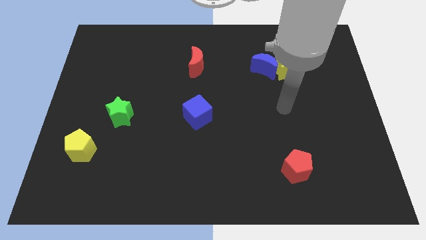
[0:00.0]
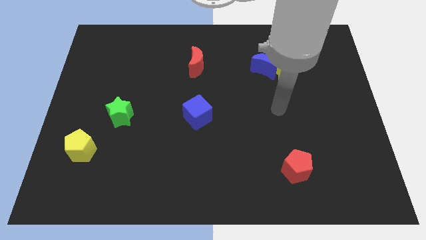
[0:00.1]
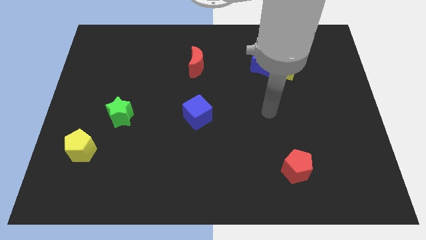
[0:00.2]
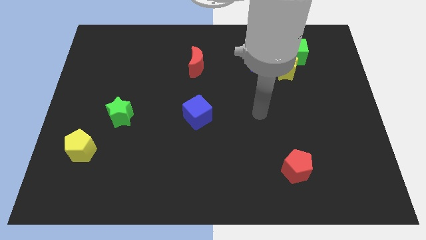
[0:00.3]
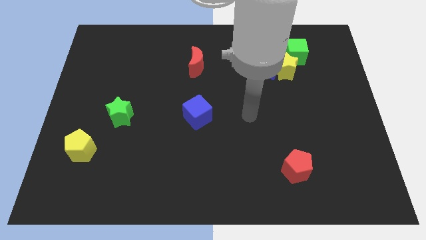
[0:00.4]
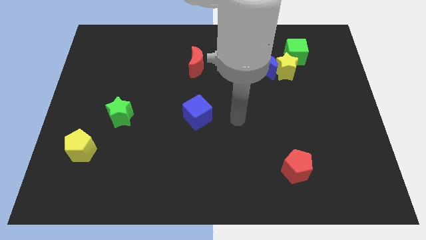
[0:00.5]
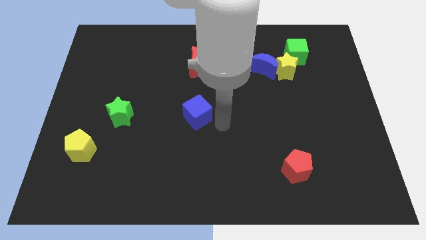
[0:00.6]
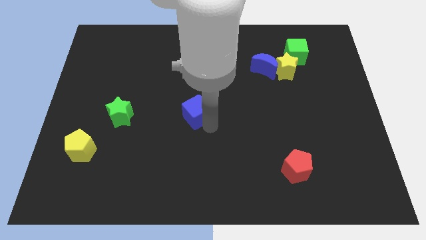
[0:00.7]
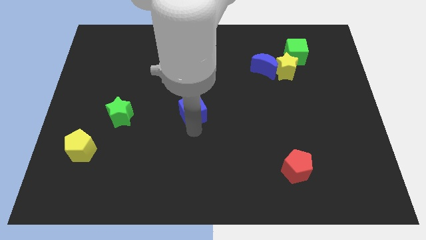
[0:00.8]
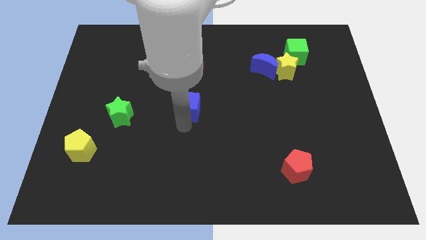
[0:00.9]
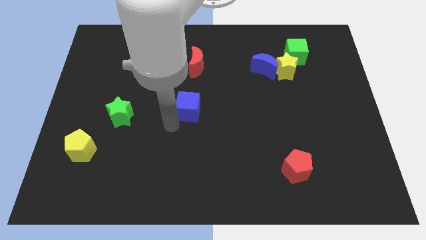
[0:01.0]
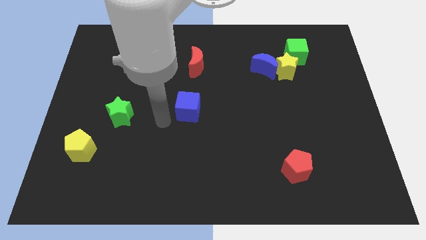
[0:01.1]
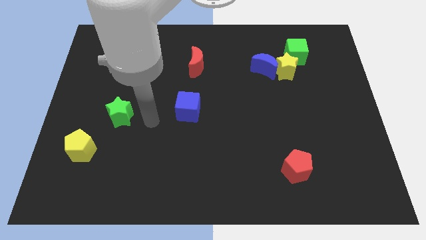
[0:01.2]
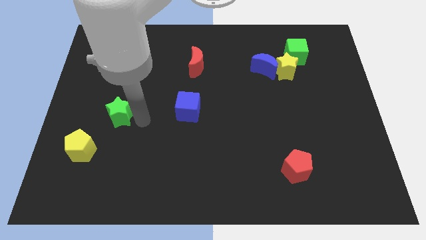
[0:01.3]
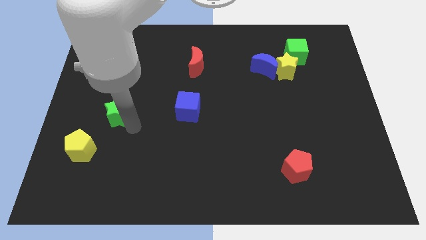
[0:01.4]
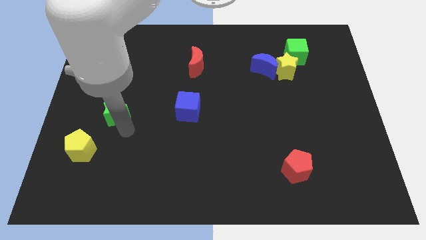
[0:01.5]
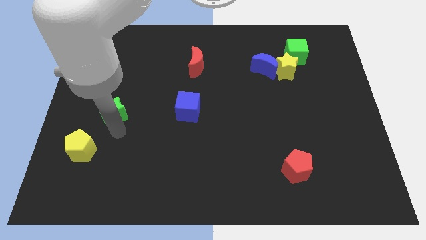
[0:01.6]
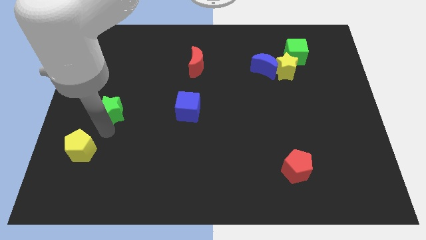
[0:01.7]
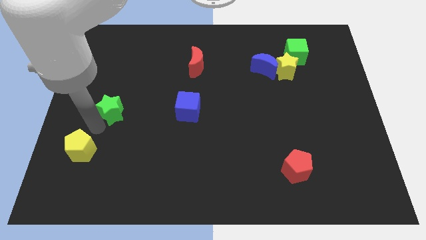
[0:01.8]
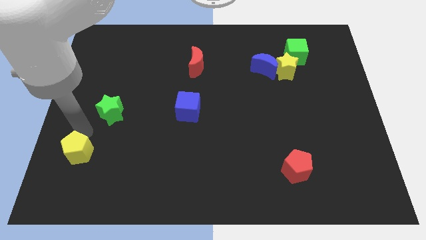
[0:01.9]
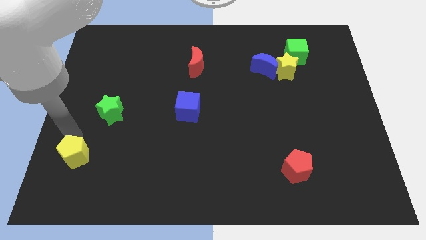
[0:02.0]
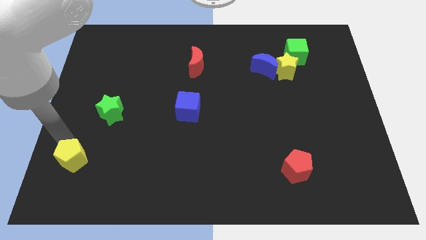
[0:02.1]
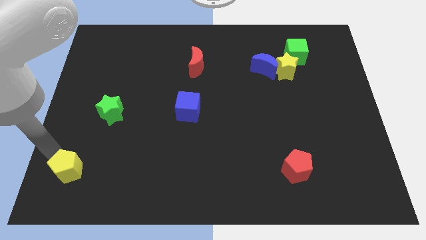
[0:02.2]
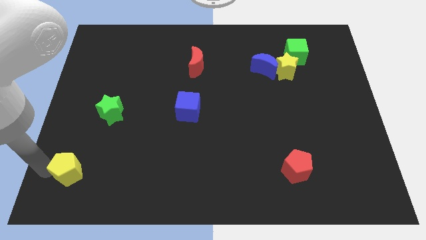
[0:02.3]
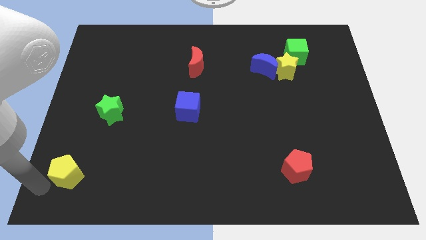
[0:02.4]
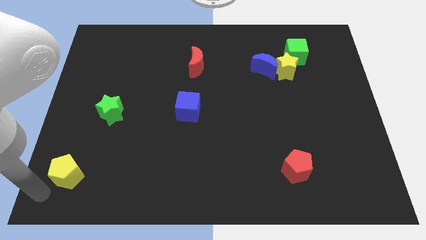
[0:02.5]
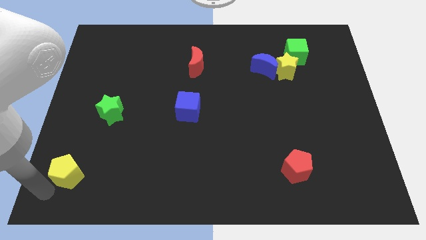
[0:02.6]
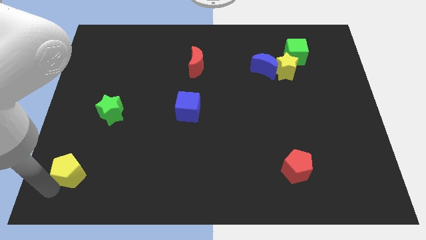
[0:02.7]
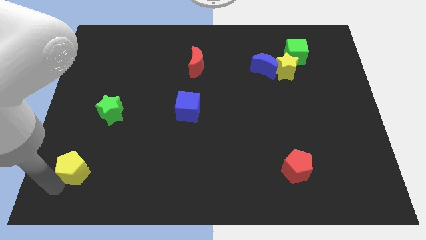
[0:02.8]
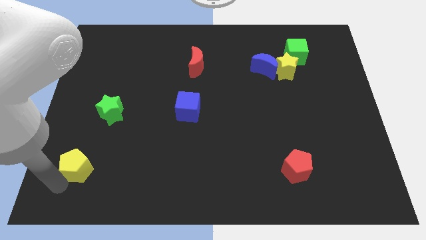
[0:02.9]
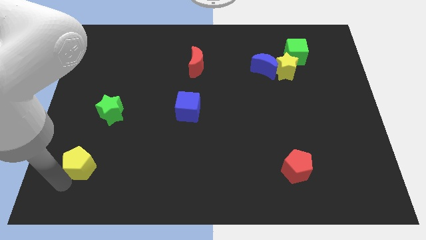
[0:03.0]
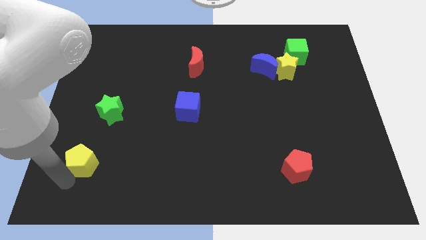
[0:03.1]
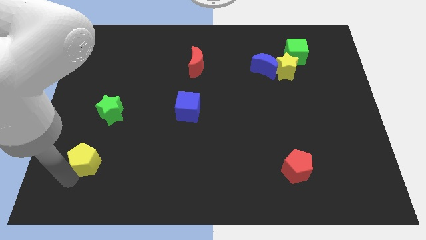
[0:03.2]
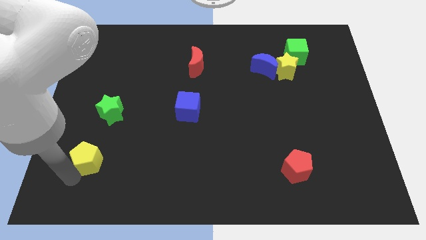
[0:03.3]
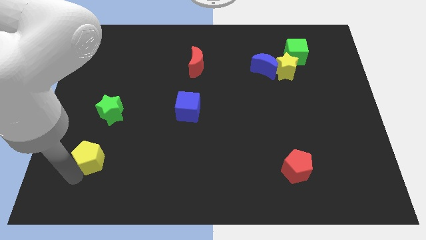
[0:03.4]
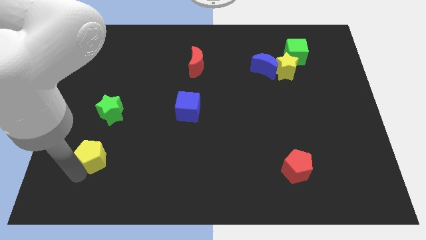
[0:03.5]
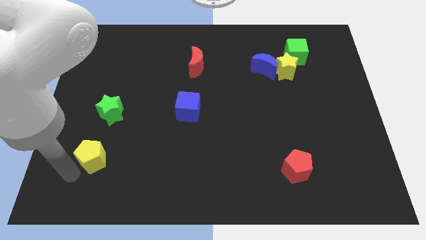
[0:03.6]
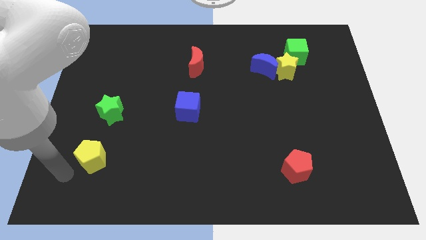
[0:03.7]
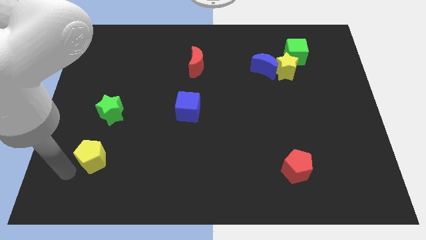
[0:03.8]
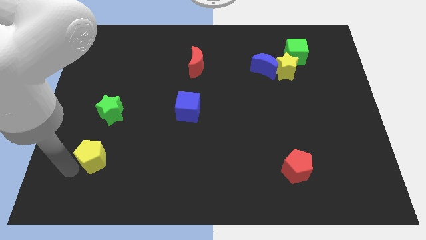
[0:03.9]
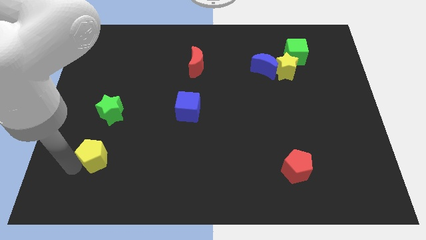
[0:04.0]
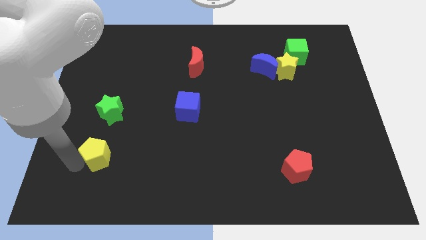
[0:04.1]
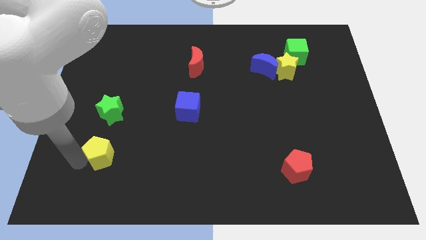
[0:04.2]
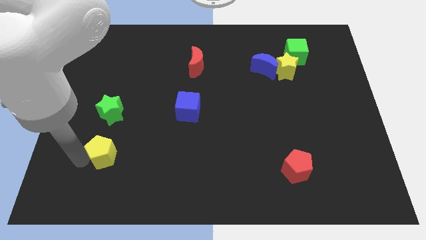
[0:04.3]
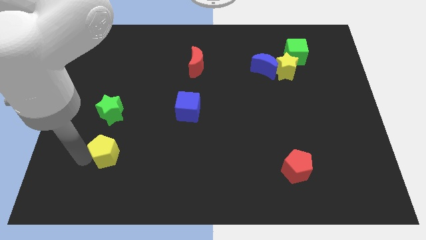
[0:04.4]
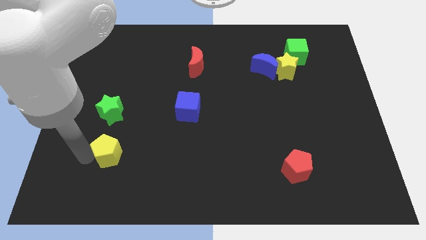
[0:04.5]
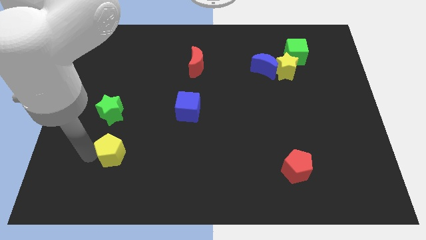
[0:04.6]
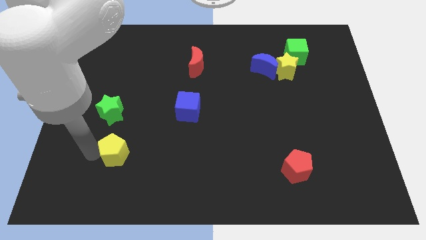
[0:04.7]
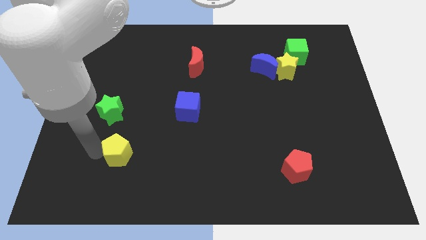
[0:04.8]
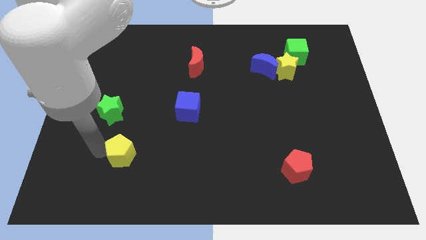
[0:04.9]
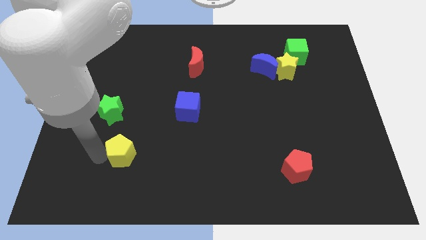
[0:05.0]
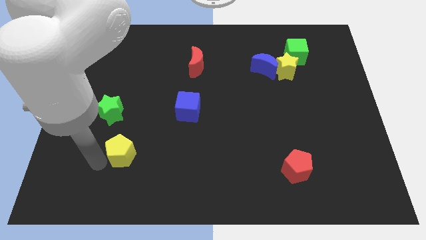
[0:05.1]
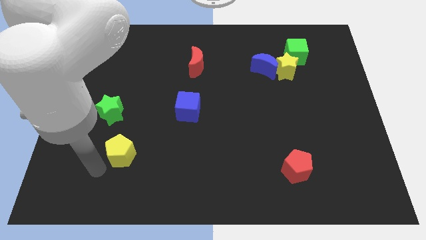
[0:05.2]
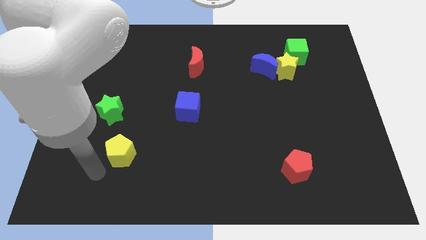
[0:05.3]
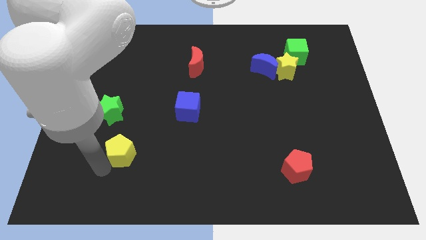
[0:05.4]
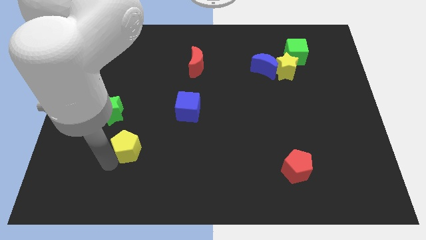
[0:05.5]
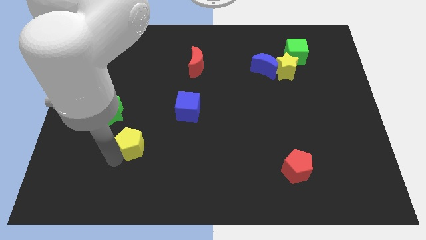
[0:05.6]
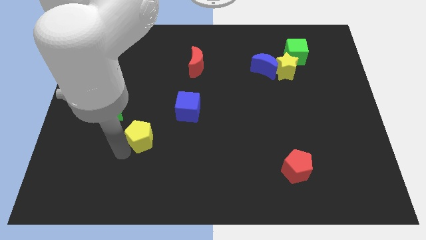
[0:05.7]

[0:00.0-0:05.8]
move the yellow pentagon diagonally down and to the left of the blue cube

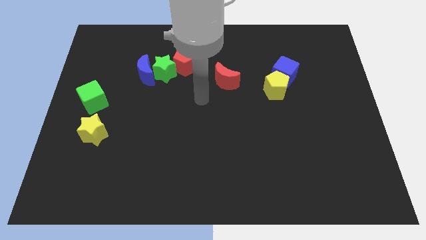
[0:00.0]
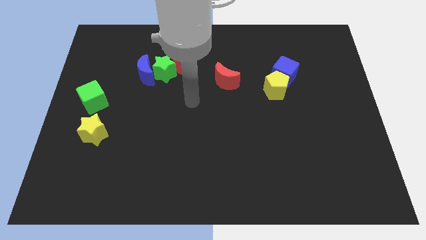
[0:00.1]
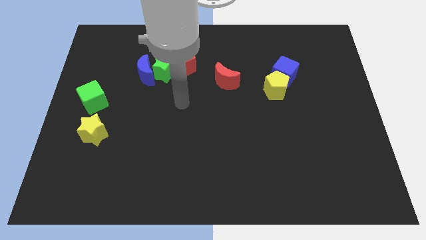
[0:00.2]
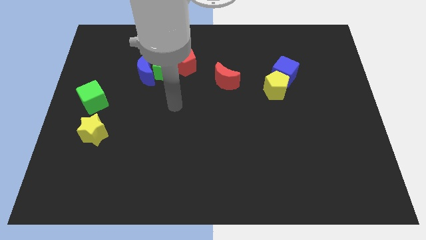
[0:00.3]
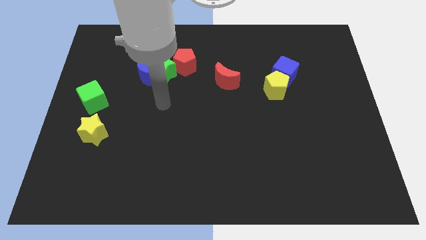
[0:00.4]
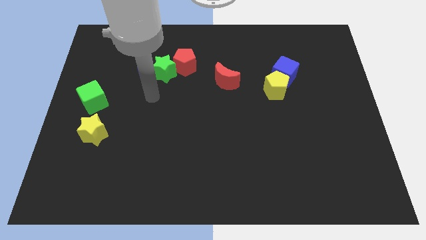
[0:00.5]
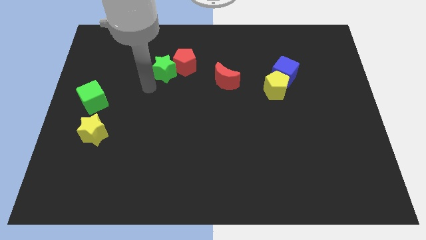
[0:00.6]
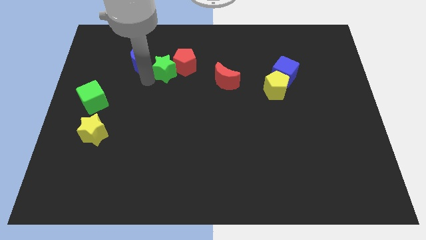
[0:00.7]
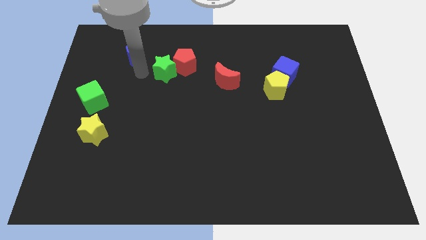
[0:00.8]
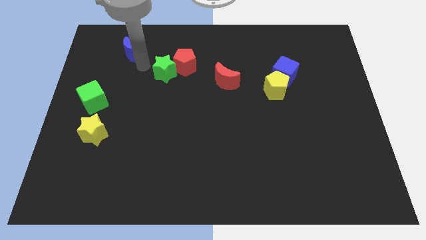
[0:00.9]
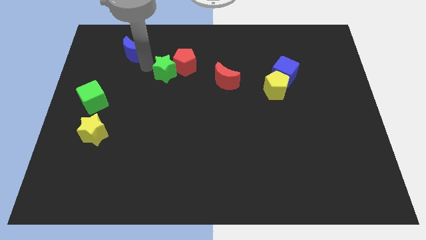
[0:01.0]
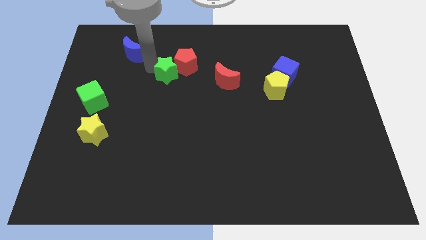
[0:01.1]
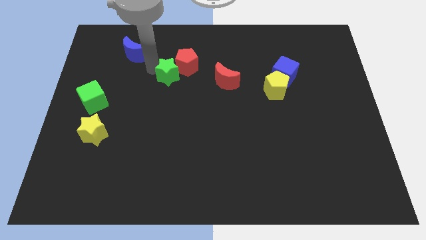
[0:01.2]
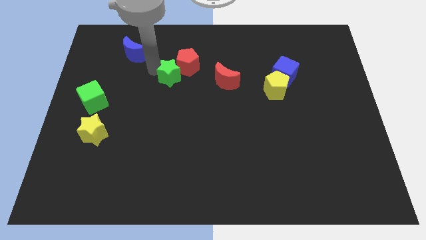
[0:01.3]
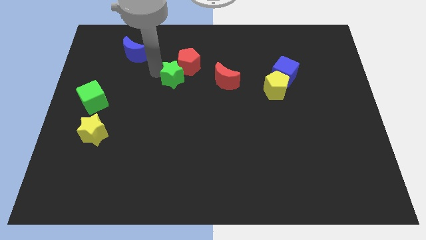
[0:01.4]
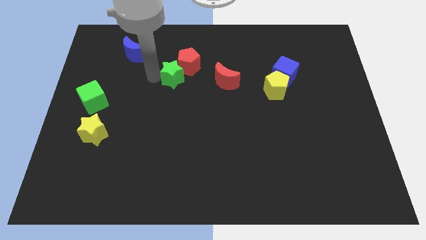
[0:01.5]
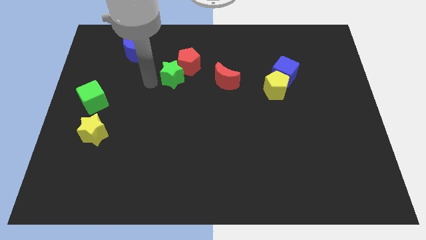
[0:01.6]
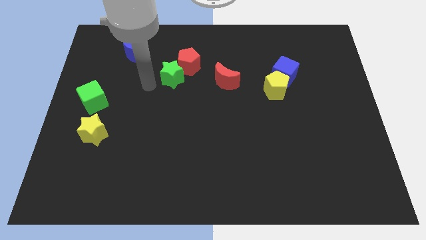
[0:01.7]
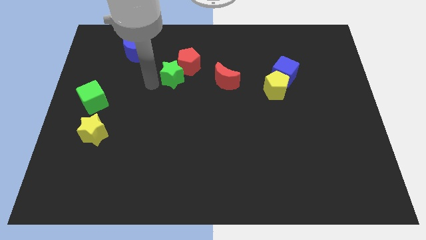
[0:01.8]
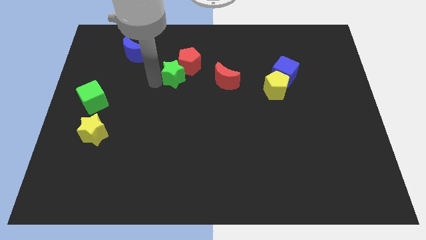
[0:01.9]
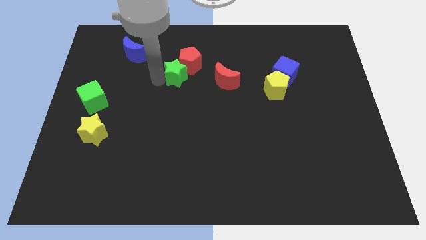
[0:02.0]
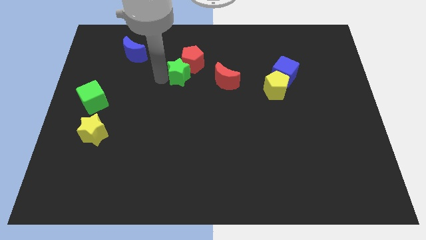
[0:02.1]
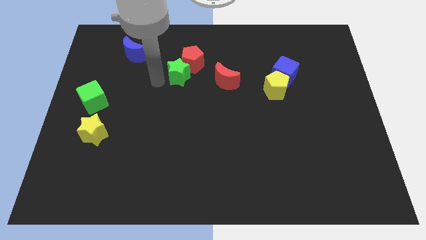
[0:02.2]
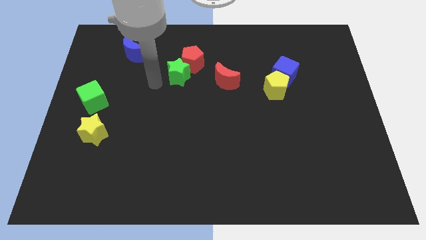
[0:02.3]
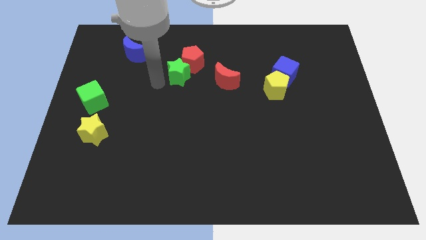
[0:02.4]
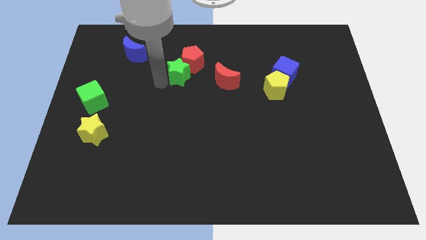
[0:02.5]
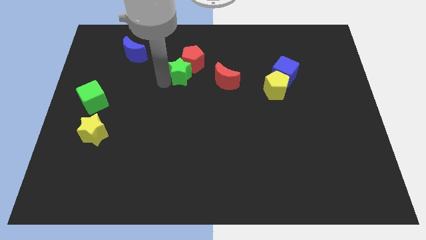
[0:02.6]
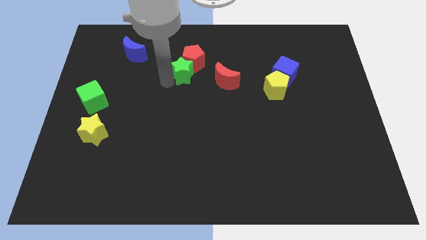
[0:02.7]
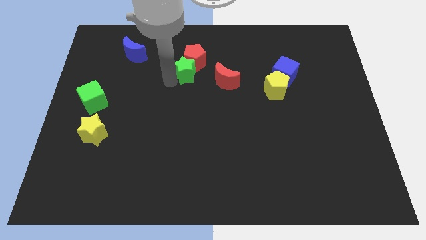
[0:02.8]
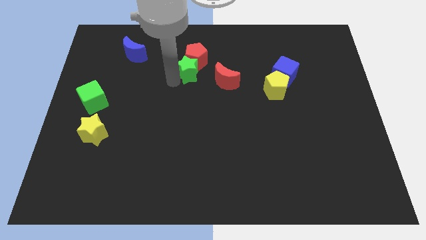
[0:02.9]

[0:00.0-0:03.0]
put the green star to the top left side of the red moon
